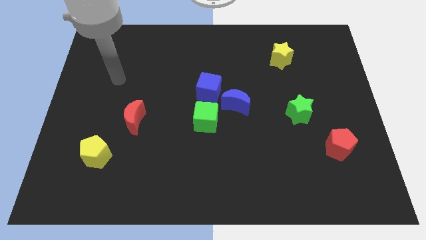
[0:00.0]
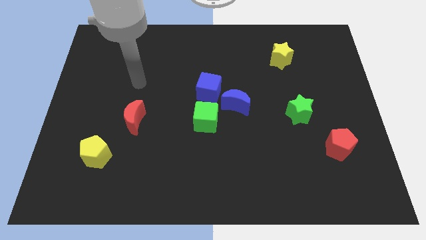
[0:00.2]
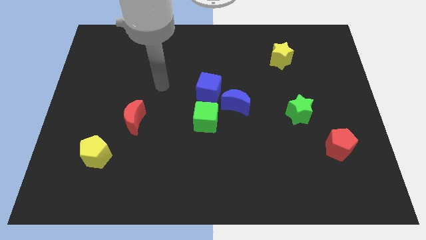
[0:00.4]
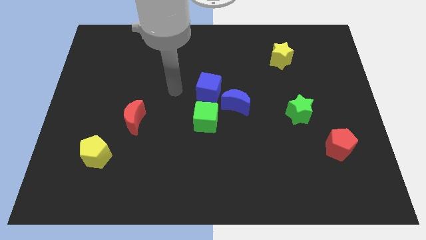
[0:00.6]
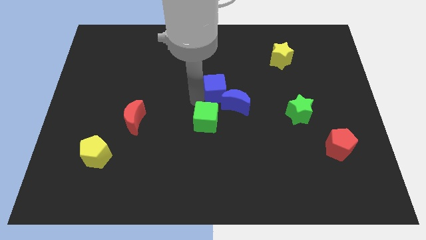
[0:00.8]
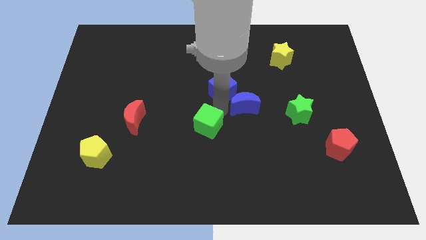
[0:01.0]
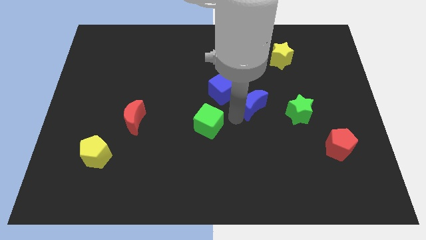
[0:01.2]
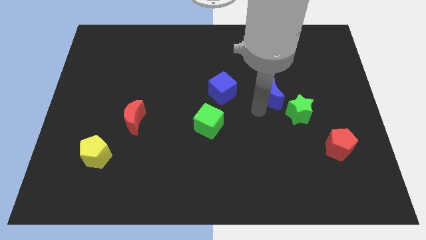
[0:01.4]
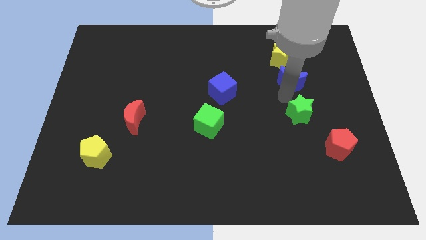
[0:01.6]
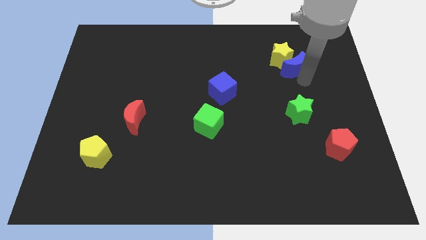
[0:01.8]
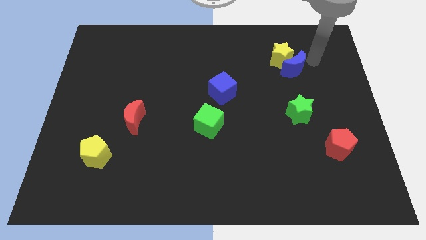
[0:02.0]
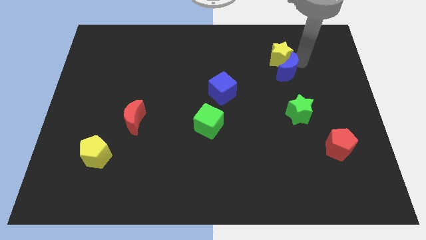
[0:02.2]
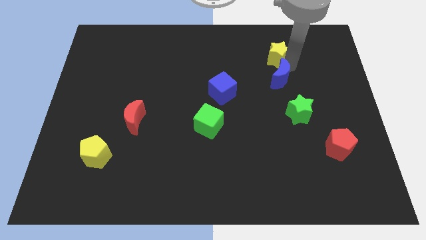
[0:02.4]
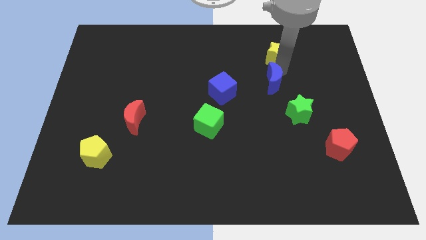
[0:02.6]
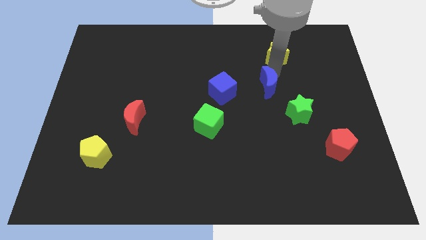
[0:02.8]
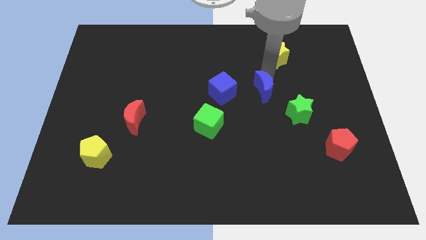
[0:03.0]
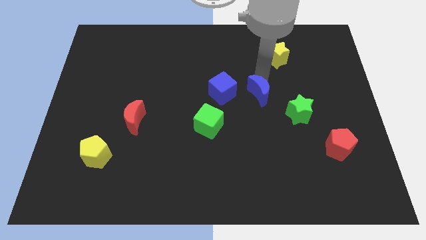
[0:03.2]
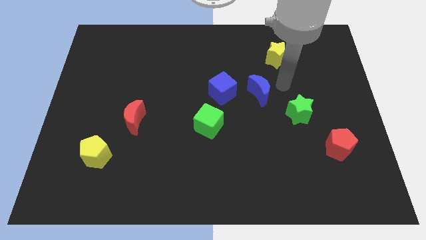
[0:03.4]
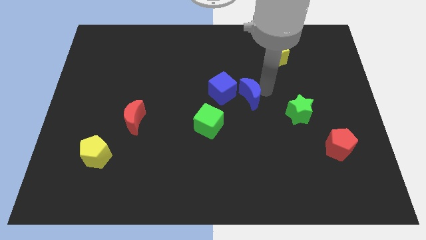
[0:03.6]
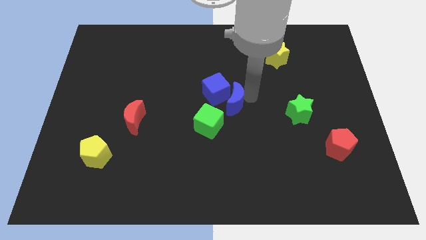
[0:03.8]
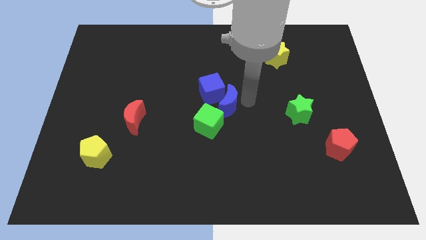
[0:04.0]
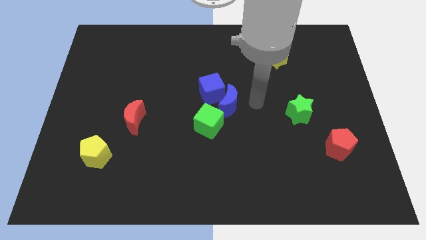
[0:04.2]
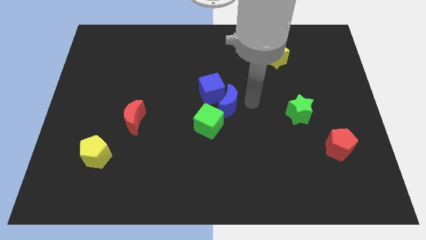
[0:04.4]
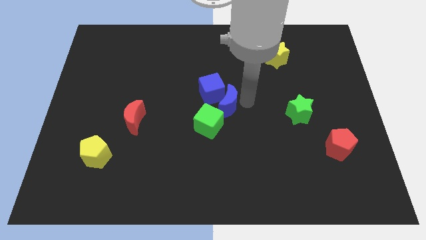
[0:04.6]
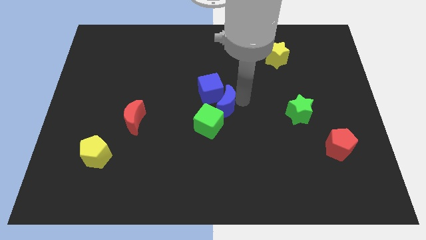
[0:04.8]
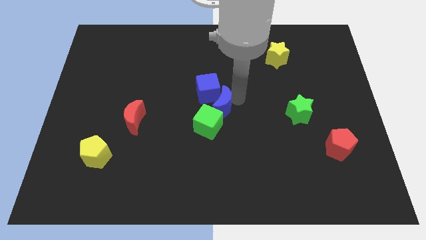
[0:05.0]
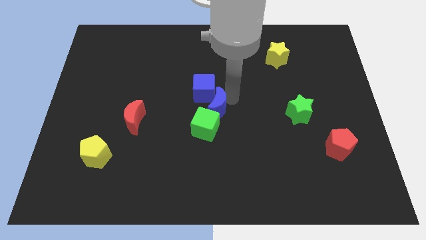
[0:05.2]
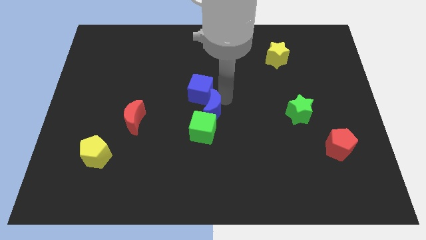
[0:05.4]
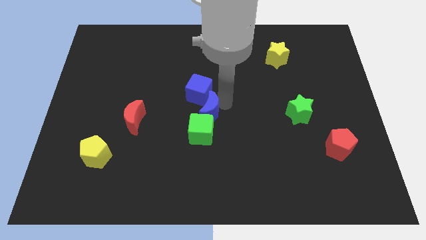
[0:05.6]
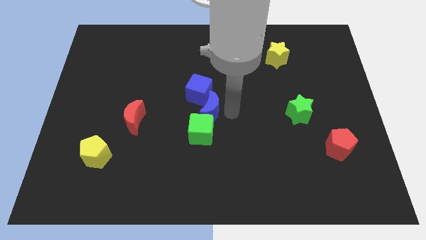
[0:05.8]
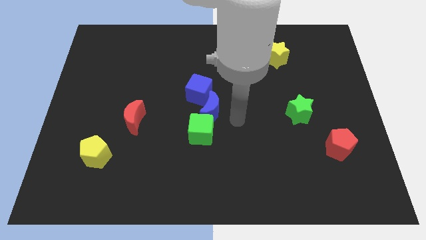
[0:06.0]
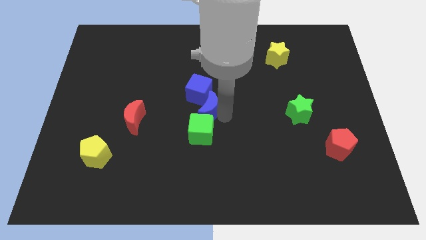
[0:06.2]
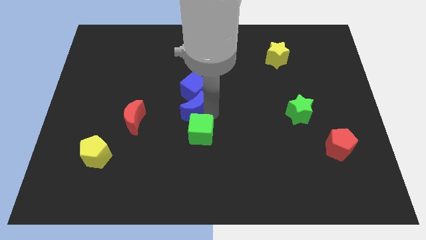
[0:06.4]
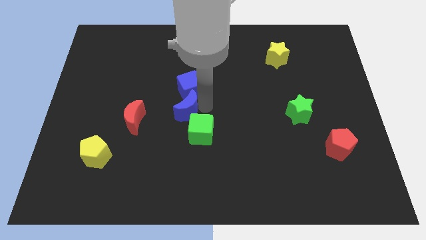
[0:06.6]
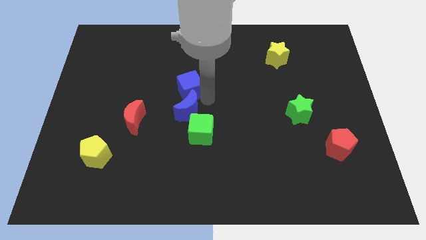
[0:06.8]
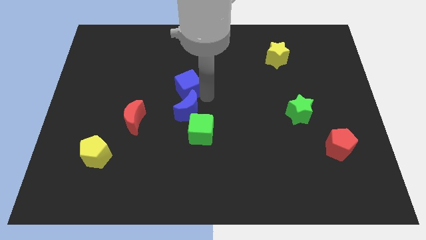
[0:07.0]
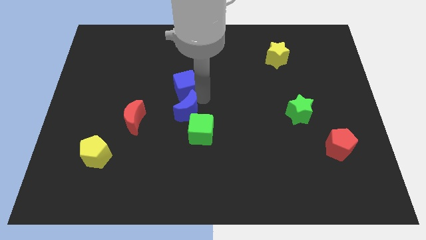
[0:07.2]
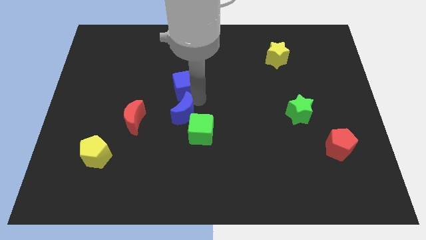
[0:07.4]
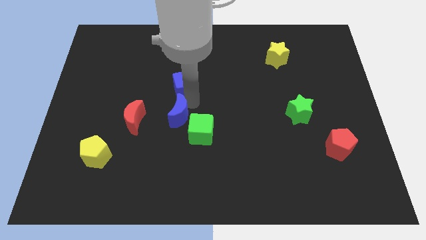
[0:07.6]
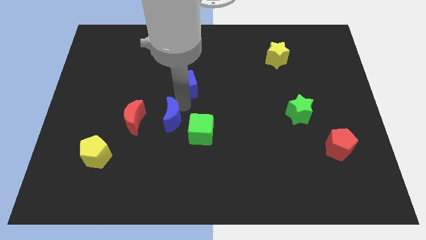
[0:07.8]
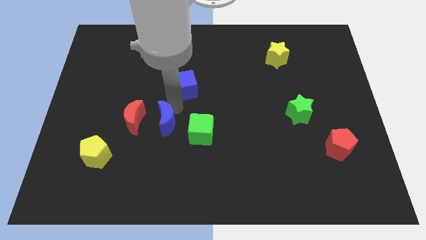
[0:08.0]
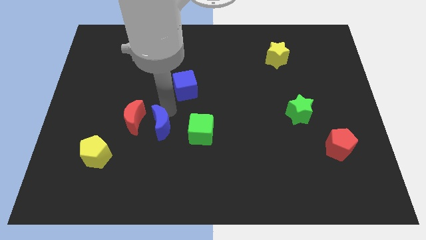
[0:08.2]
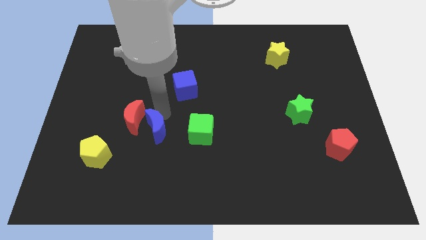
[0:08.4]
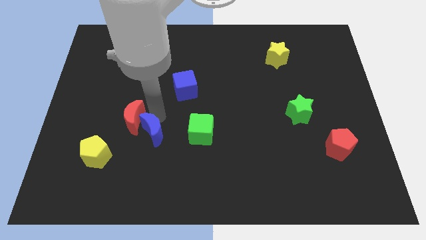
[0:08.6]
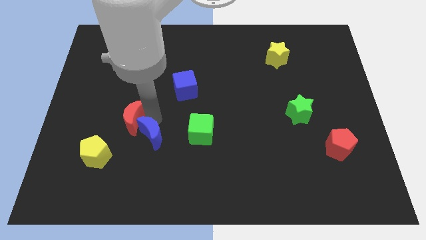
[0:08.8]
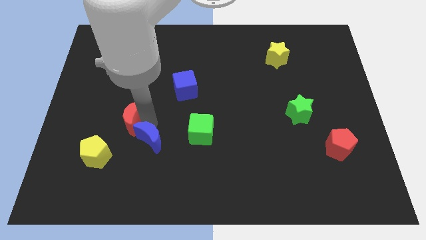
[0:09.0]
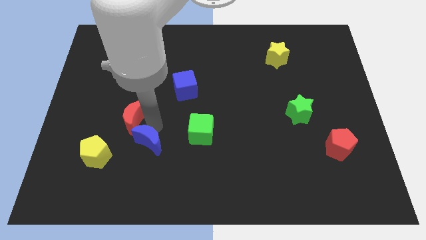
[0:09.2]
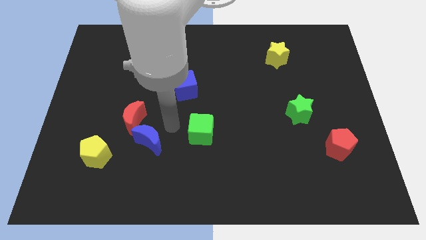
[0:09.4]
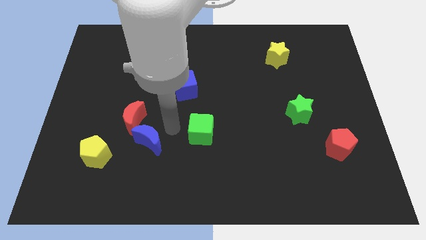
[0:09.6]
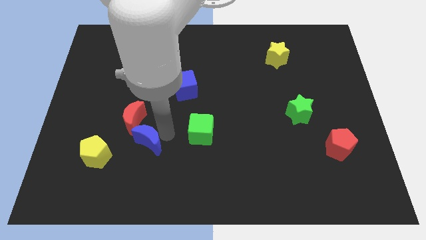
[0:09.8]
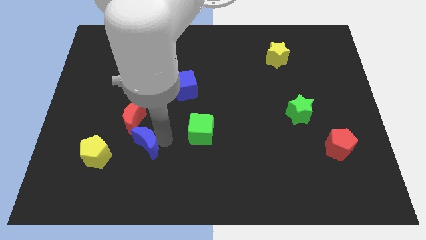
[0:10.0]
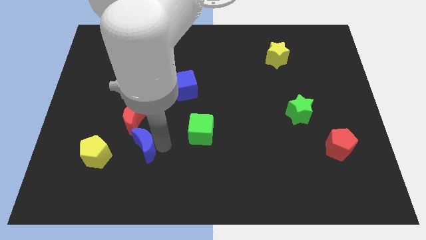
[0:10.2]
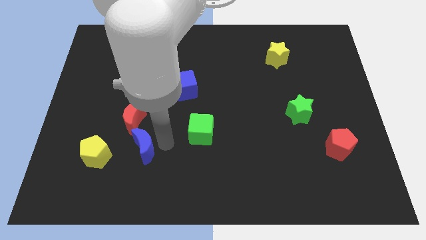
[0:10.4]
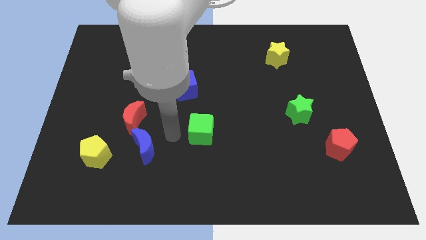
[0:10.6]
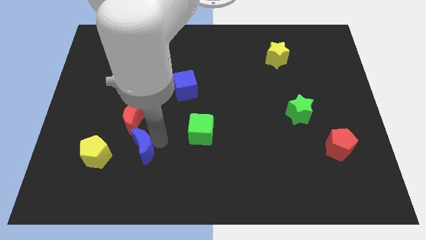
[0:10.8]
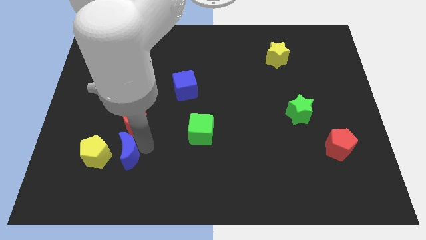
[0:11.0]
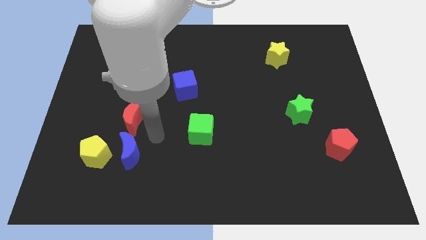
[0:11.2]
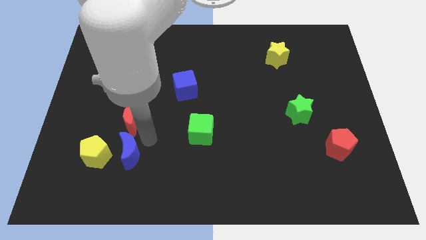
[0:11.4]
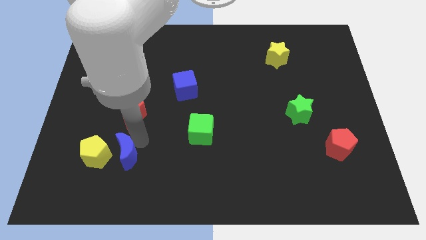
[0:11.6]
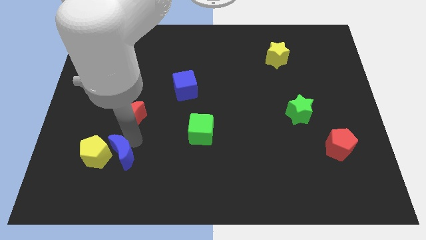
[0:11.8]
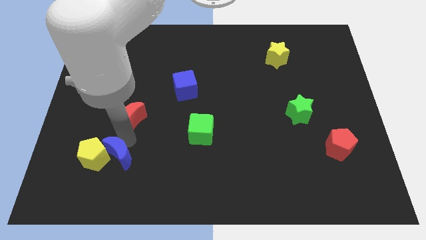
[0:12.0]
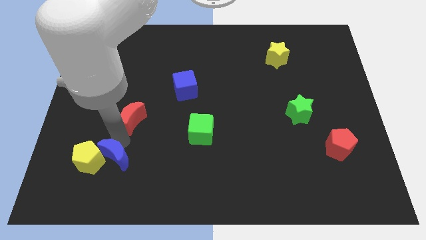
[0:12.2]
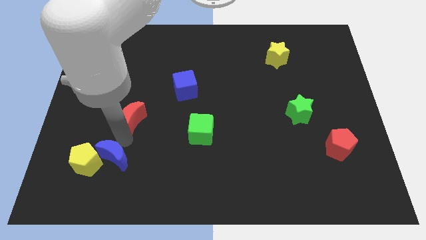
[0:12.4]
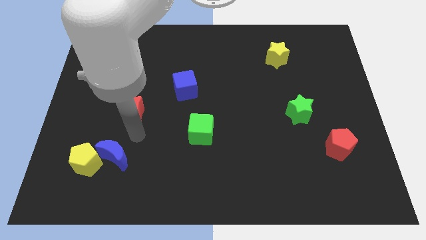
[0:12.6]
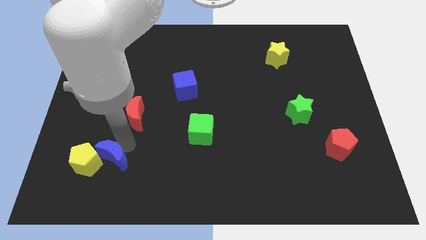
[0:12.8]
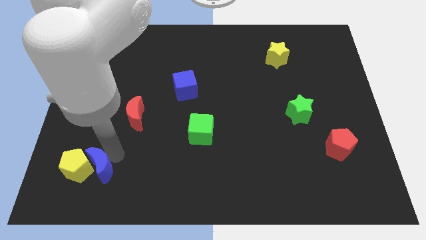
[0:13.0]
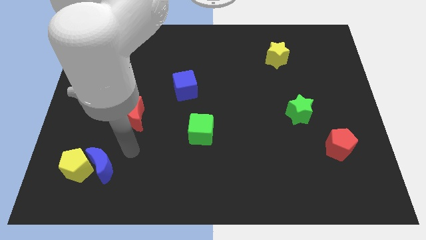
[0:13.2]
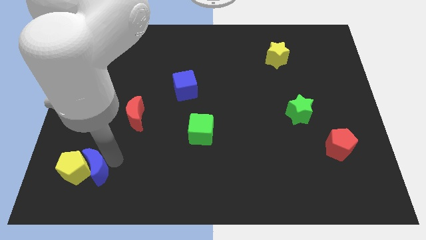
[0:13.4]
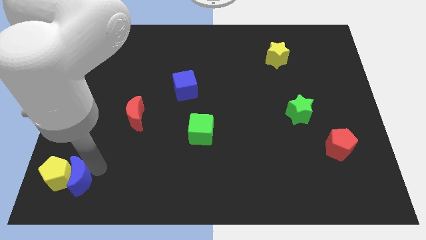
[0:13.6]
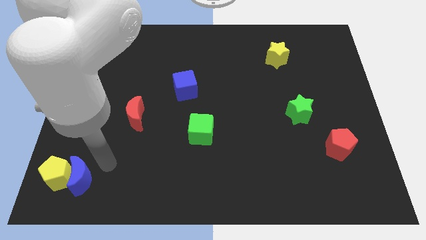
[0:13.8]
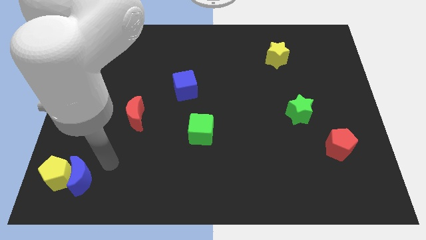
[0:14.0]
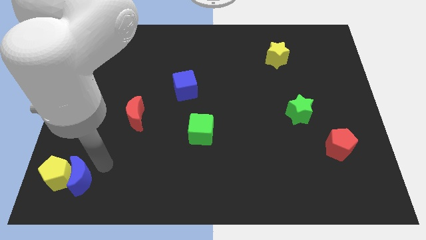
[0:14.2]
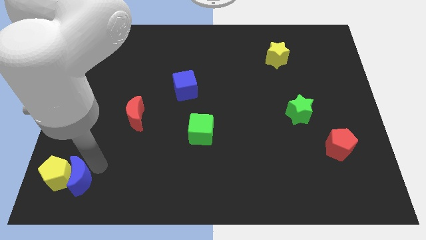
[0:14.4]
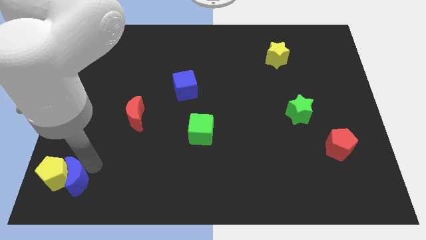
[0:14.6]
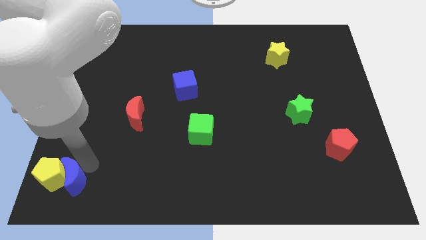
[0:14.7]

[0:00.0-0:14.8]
put the blue moon to the bottom left of the board

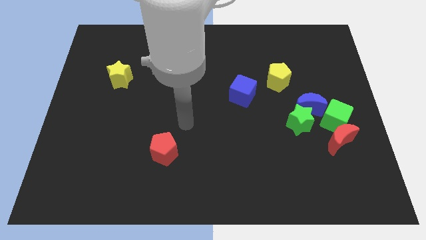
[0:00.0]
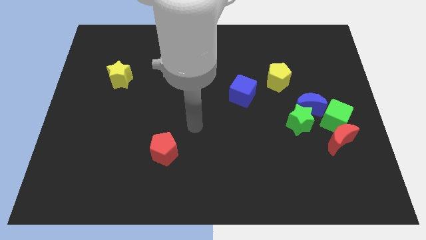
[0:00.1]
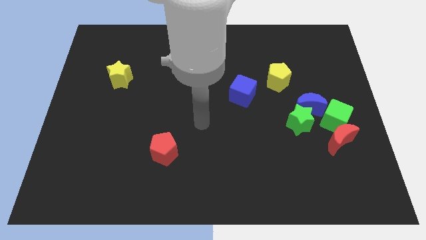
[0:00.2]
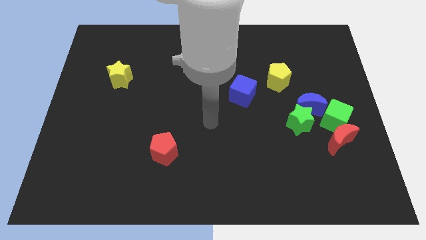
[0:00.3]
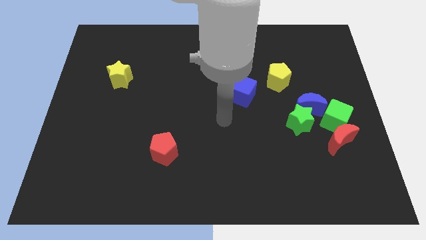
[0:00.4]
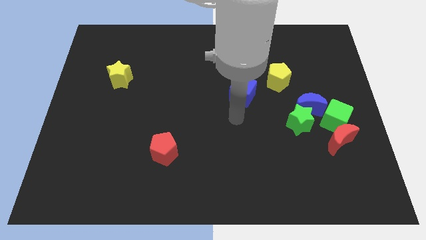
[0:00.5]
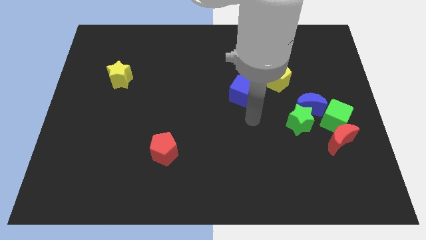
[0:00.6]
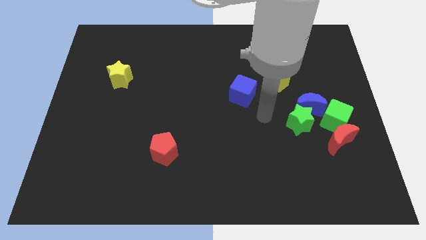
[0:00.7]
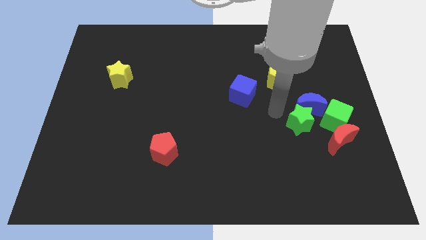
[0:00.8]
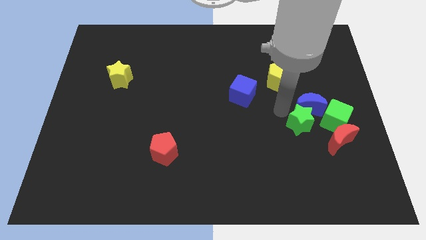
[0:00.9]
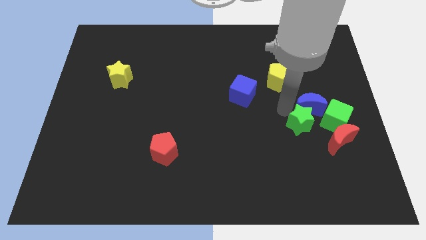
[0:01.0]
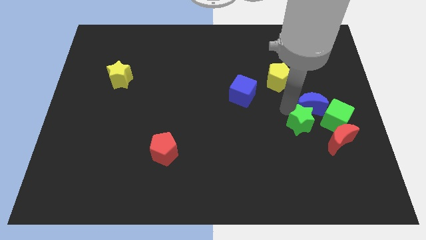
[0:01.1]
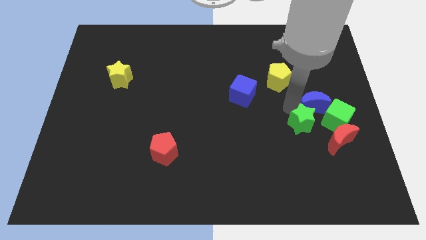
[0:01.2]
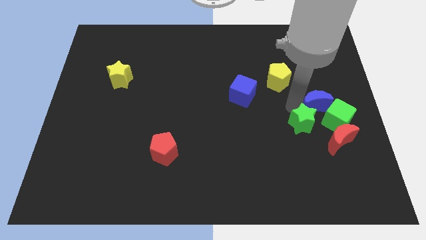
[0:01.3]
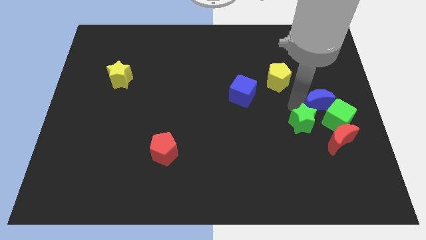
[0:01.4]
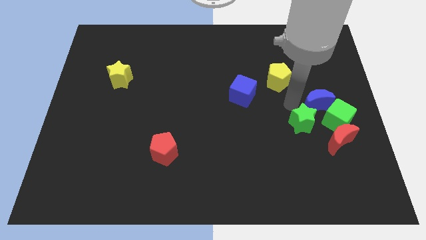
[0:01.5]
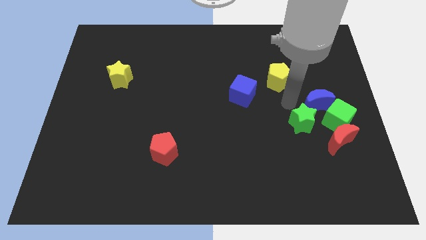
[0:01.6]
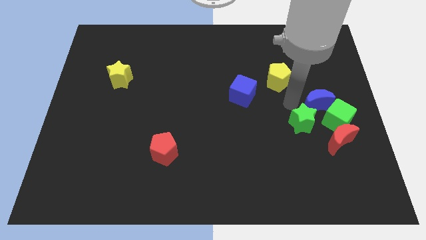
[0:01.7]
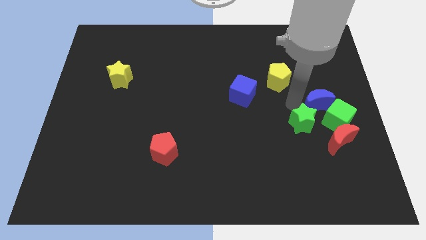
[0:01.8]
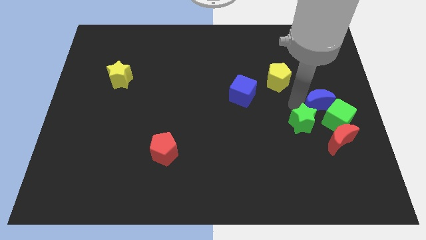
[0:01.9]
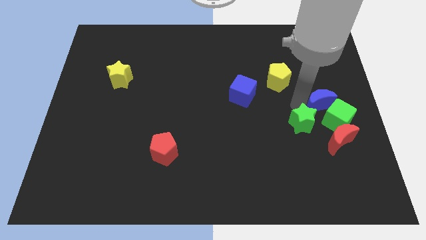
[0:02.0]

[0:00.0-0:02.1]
put the blue moon to the right side of the board
